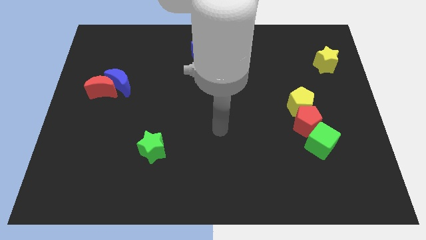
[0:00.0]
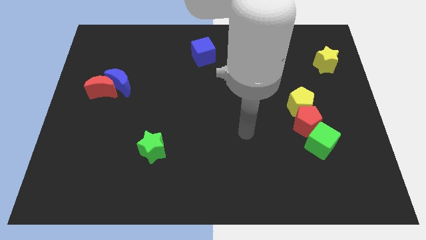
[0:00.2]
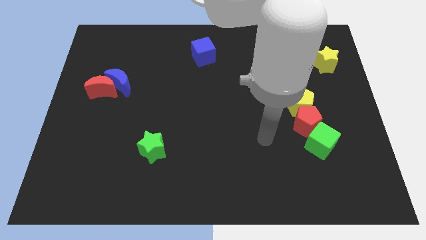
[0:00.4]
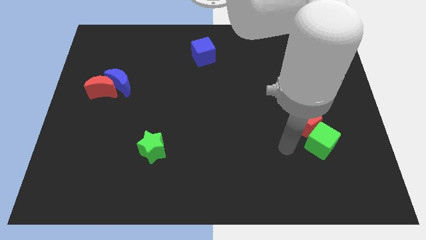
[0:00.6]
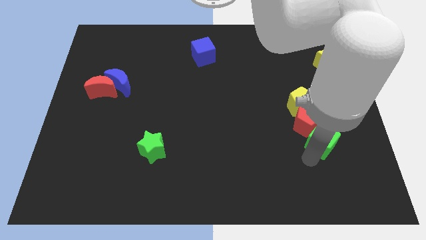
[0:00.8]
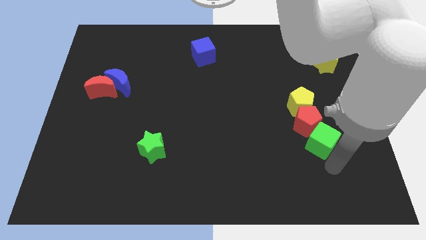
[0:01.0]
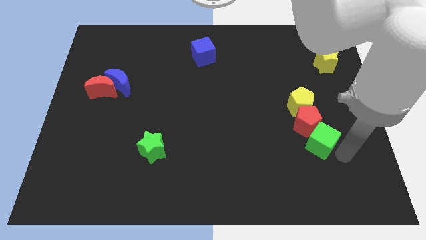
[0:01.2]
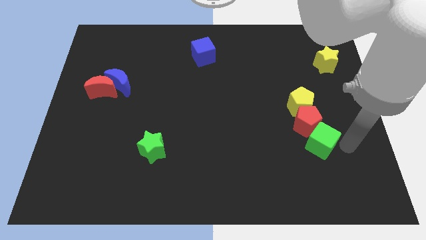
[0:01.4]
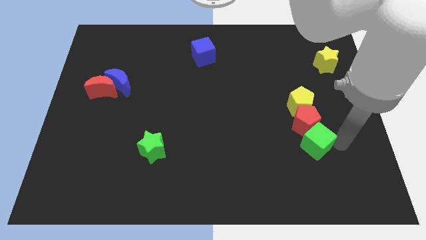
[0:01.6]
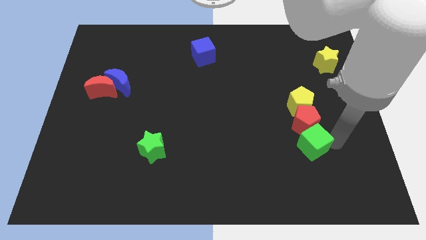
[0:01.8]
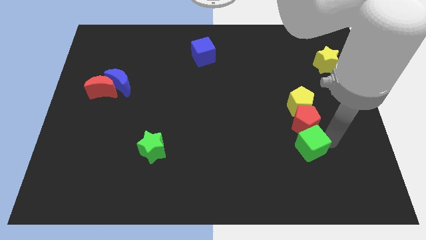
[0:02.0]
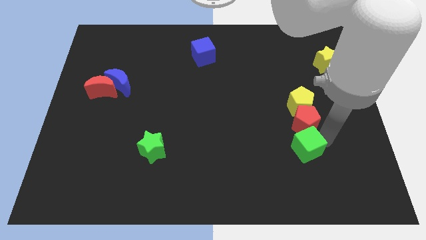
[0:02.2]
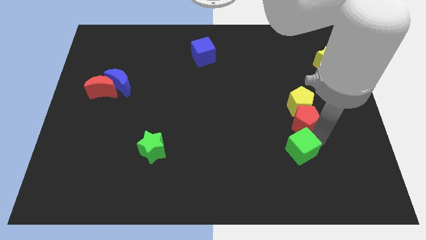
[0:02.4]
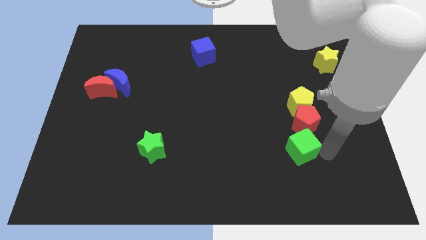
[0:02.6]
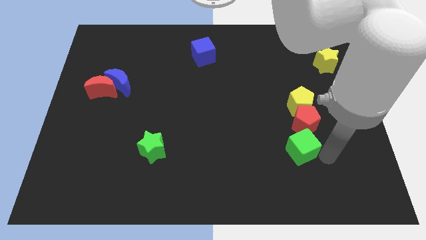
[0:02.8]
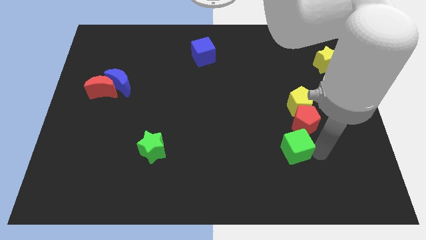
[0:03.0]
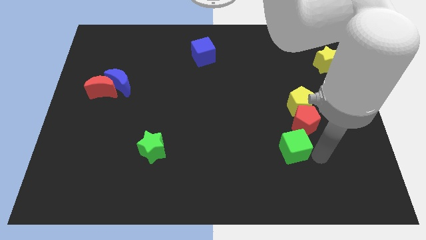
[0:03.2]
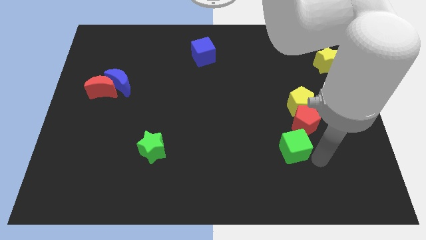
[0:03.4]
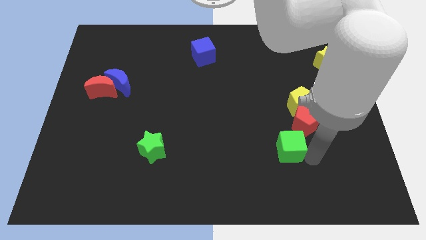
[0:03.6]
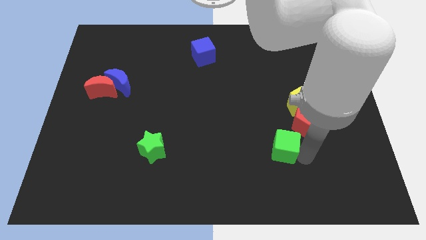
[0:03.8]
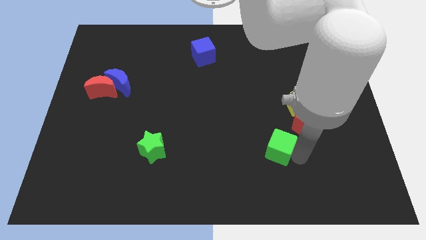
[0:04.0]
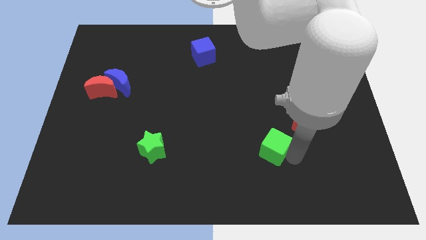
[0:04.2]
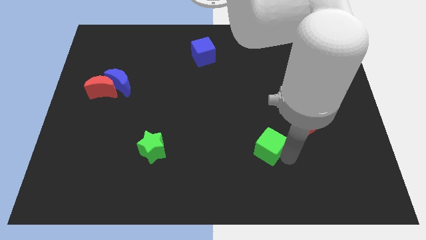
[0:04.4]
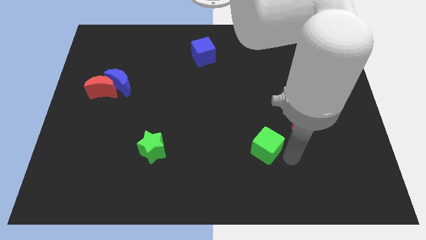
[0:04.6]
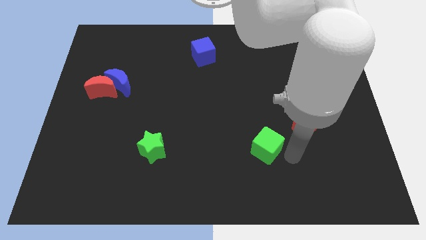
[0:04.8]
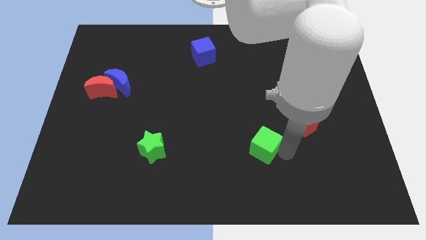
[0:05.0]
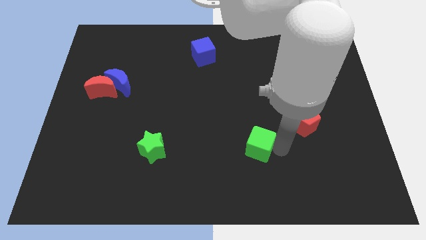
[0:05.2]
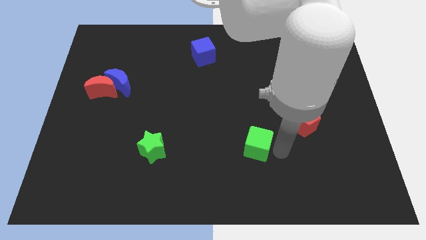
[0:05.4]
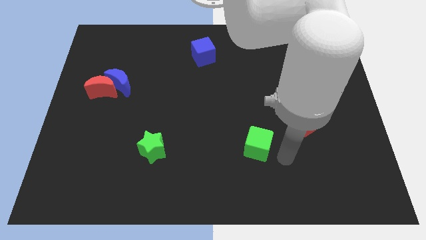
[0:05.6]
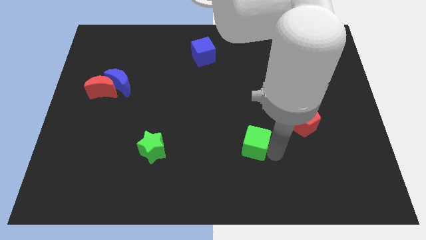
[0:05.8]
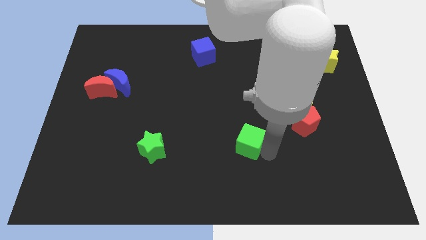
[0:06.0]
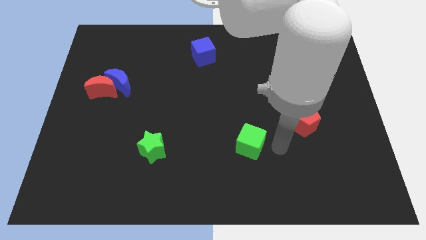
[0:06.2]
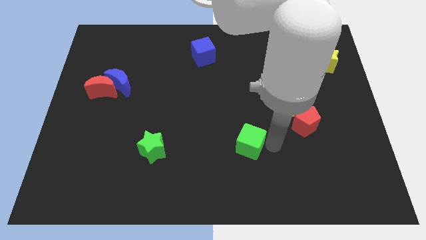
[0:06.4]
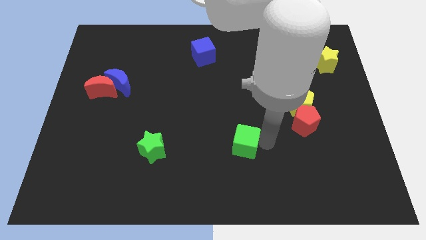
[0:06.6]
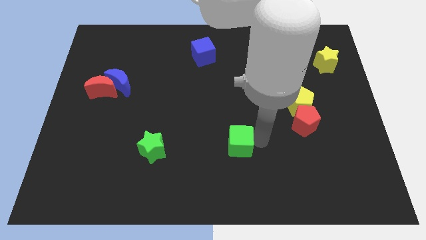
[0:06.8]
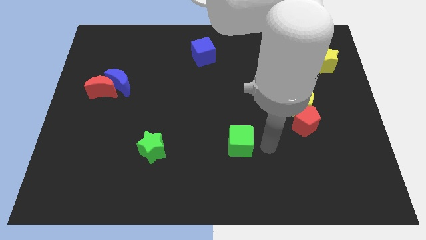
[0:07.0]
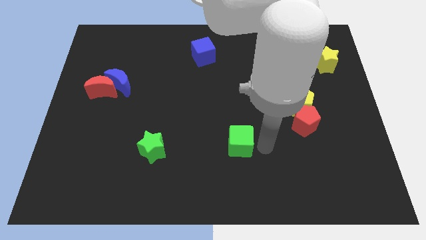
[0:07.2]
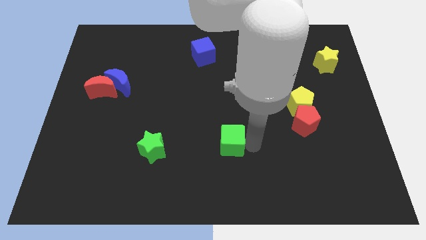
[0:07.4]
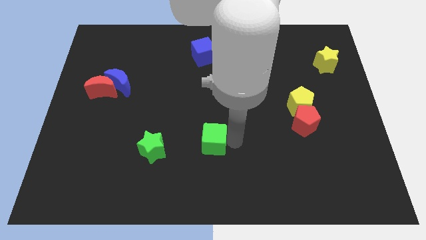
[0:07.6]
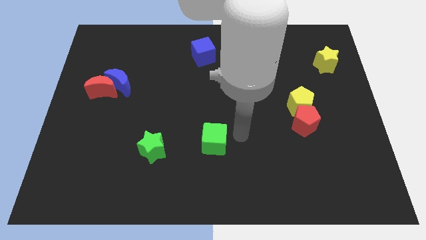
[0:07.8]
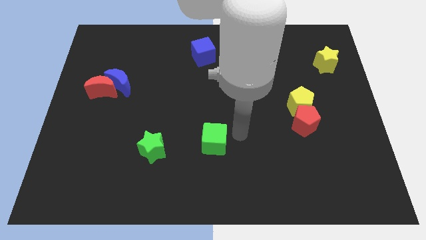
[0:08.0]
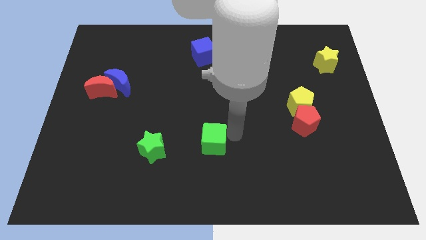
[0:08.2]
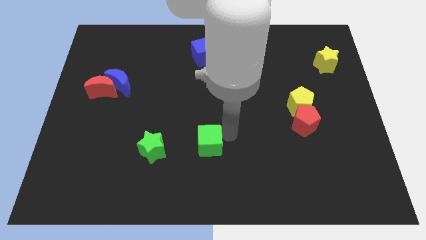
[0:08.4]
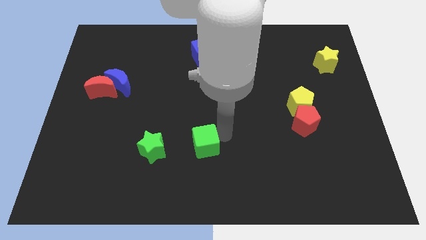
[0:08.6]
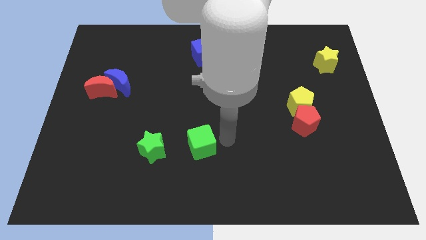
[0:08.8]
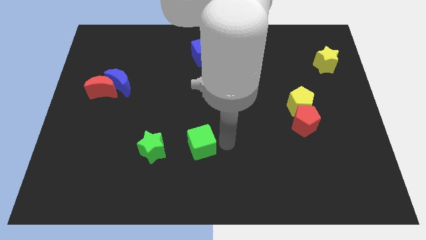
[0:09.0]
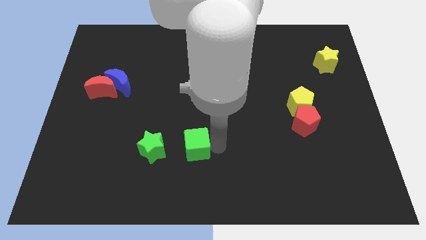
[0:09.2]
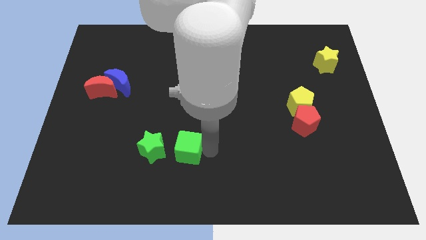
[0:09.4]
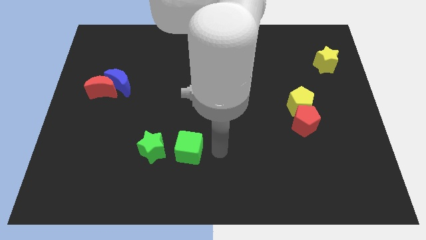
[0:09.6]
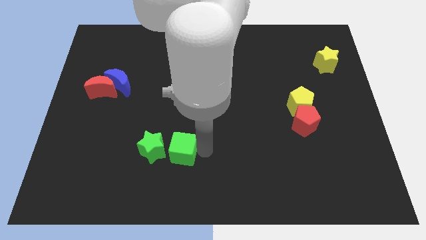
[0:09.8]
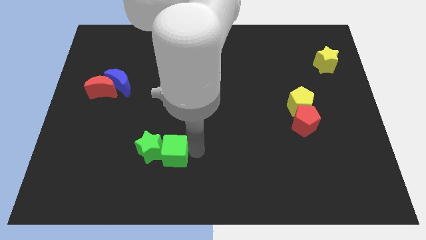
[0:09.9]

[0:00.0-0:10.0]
slide the green cube towards the green star

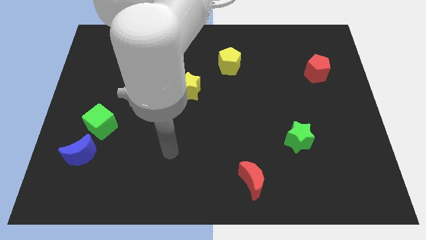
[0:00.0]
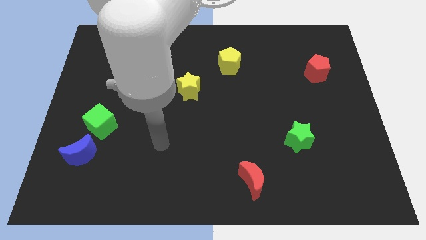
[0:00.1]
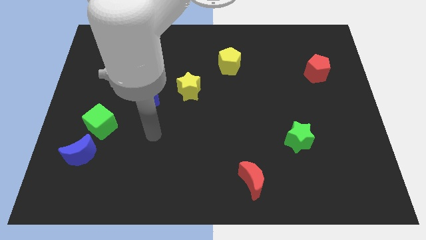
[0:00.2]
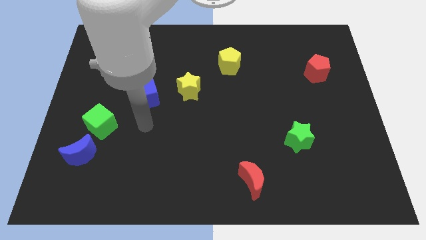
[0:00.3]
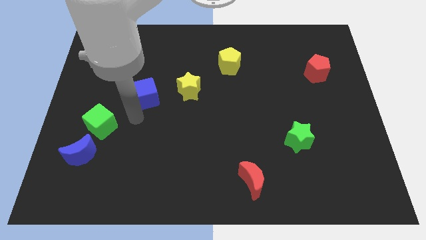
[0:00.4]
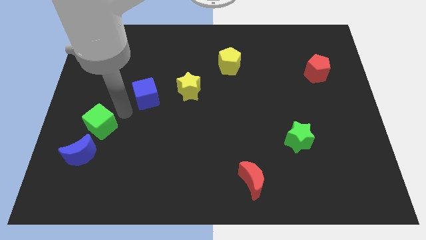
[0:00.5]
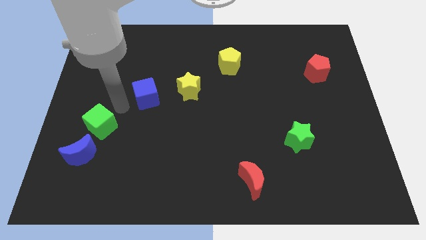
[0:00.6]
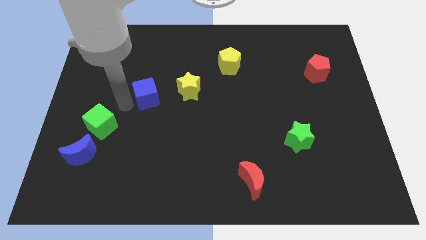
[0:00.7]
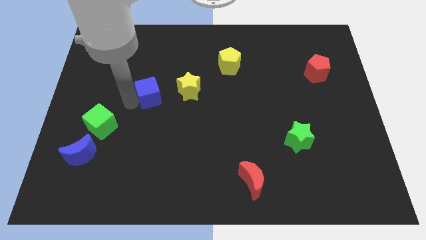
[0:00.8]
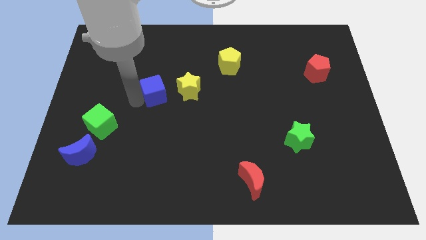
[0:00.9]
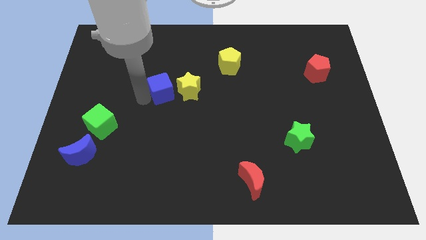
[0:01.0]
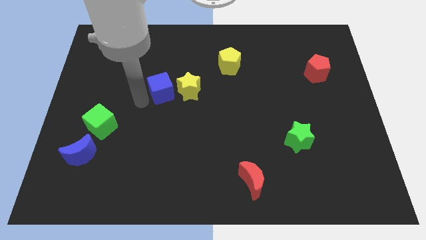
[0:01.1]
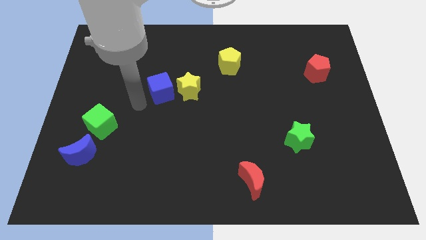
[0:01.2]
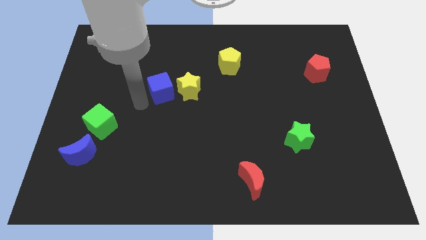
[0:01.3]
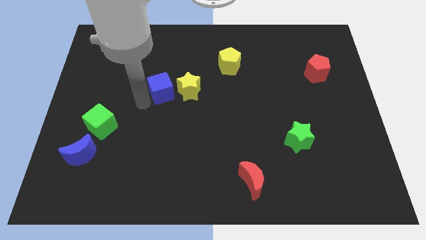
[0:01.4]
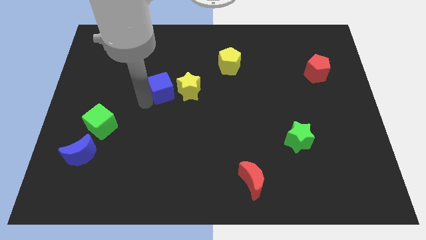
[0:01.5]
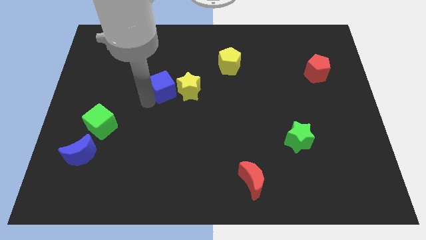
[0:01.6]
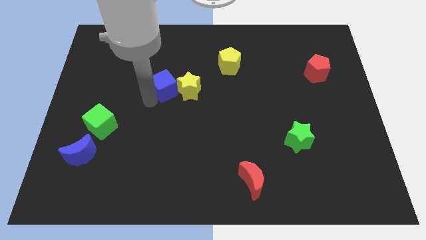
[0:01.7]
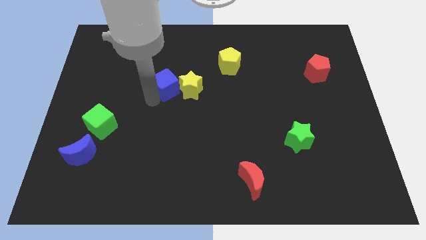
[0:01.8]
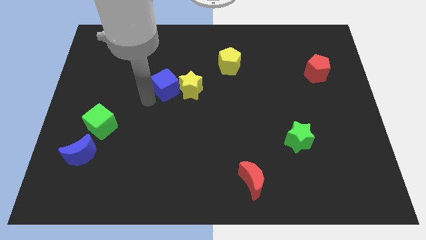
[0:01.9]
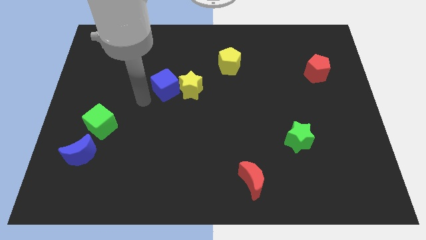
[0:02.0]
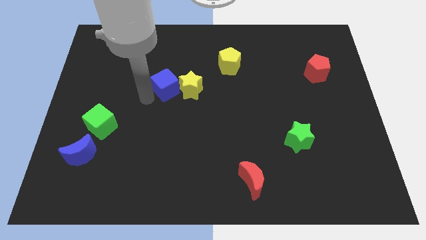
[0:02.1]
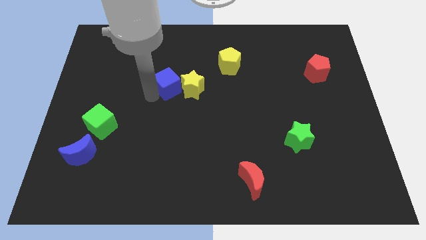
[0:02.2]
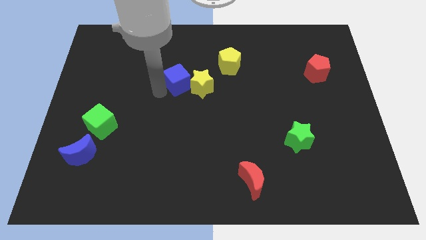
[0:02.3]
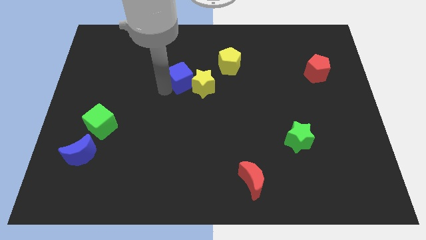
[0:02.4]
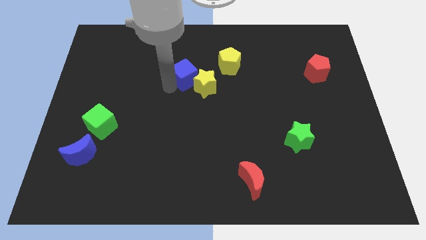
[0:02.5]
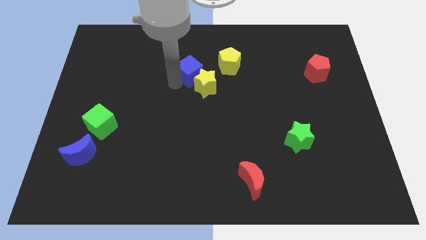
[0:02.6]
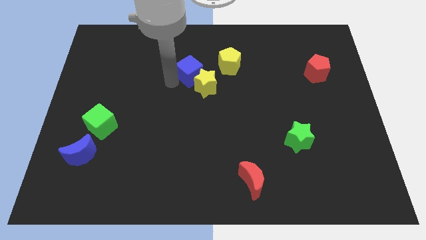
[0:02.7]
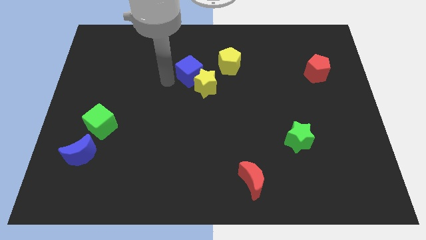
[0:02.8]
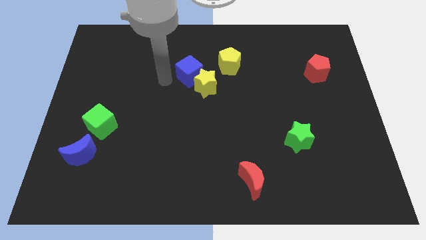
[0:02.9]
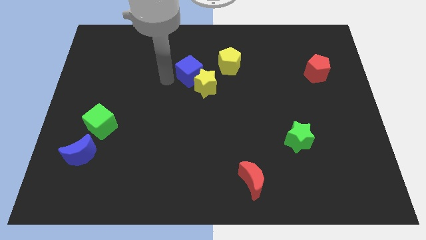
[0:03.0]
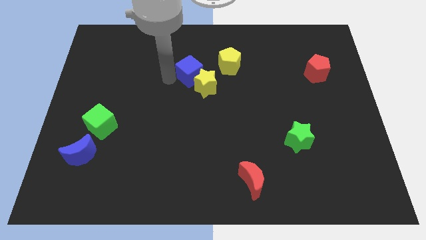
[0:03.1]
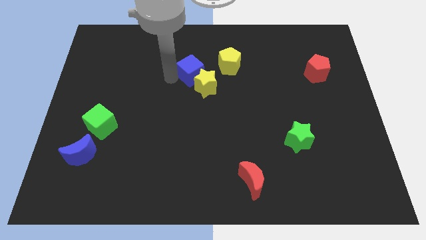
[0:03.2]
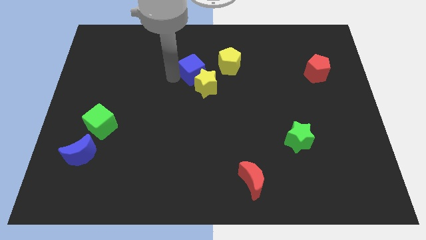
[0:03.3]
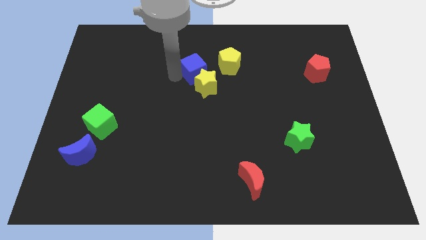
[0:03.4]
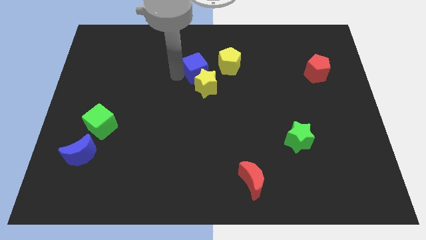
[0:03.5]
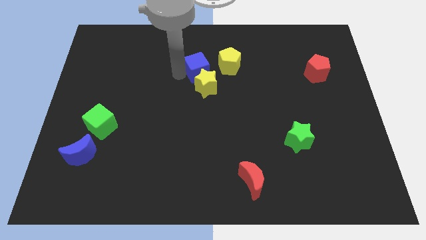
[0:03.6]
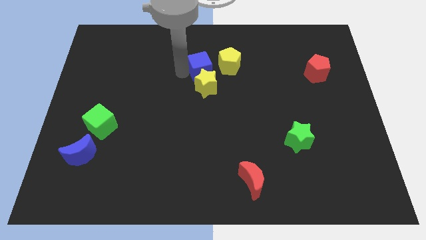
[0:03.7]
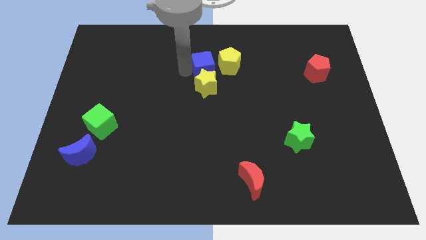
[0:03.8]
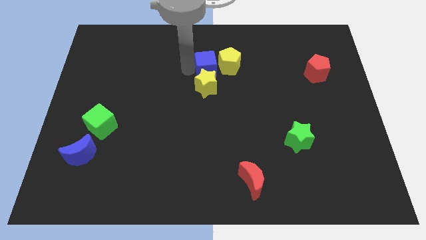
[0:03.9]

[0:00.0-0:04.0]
put the blue cube close to the yellow pentagon
